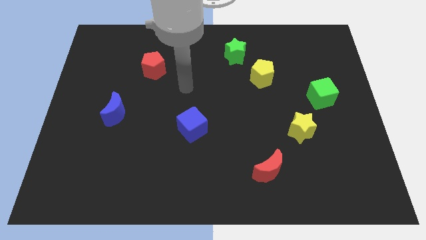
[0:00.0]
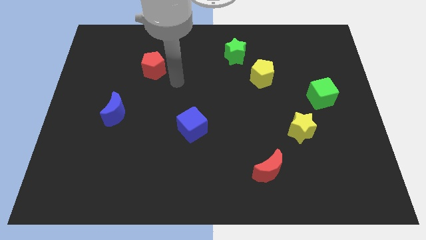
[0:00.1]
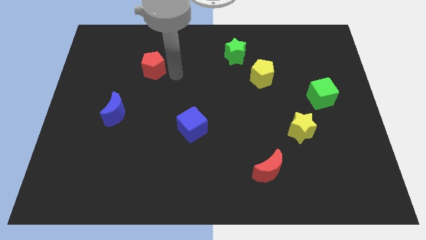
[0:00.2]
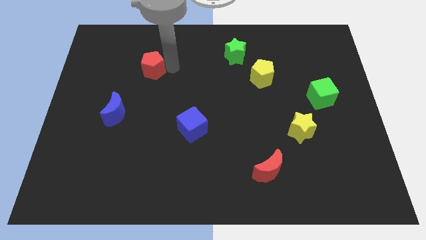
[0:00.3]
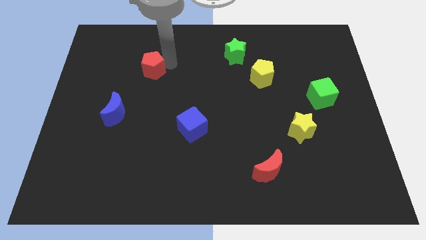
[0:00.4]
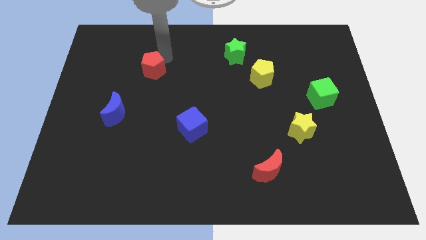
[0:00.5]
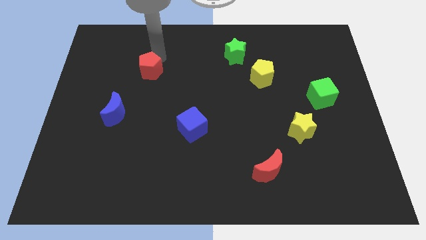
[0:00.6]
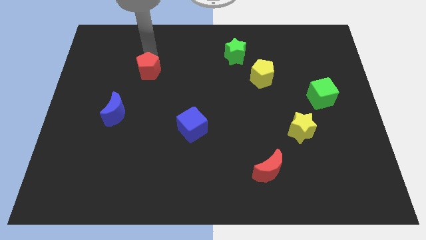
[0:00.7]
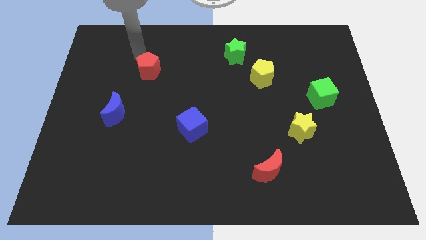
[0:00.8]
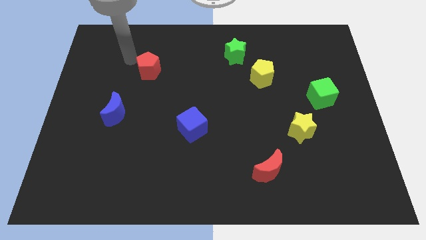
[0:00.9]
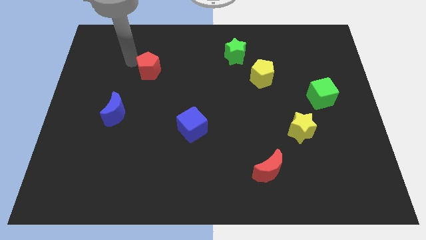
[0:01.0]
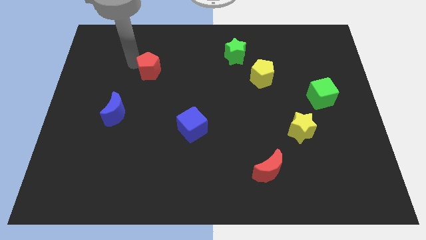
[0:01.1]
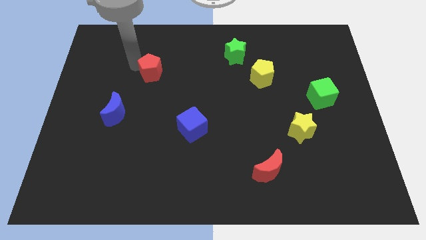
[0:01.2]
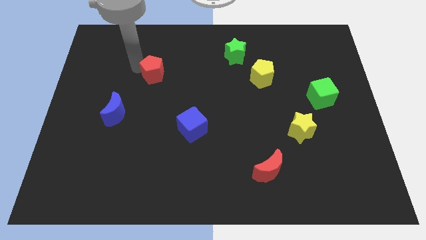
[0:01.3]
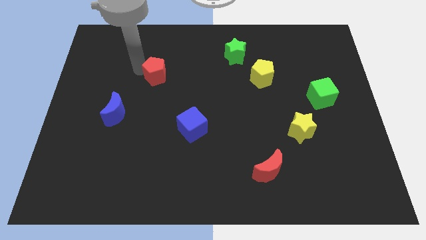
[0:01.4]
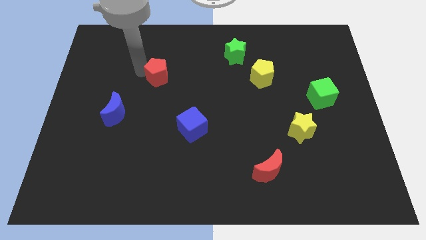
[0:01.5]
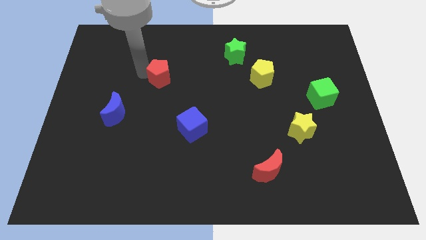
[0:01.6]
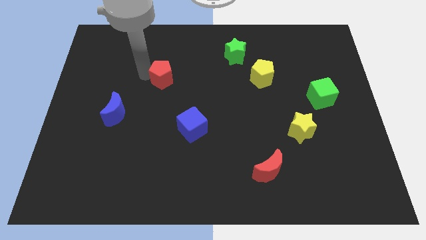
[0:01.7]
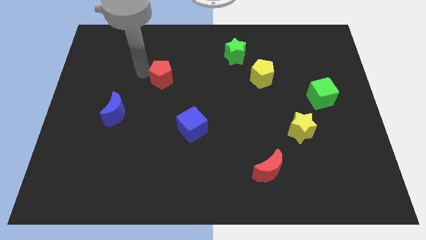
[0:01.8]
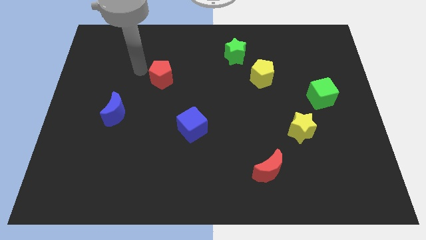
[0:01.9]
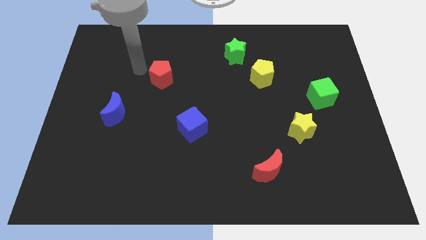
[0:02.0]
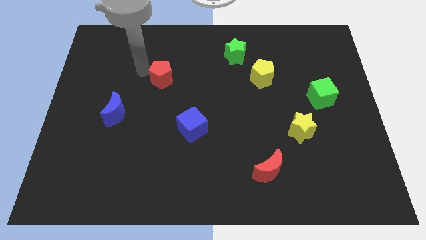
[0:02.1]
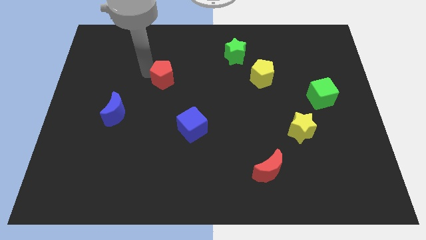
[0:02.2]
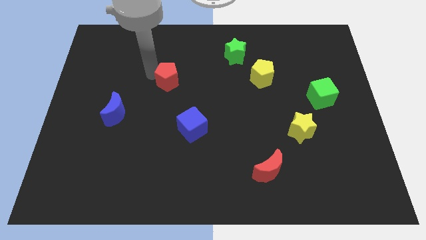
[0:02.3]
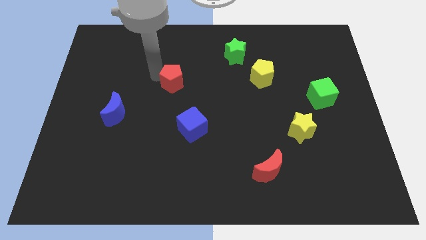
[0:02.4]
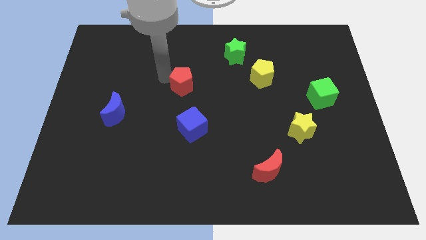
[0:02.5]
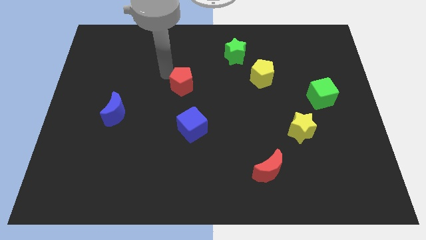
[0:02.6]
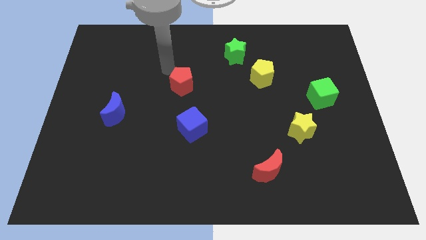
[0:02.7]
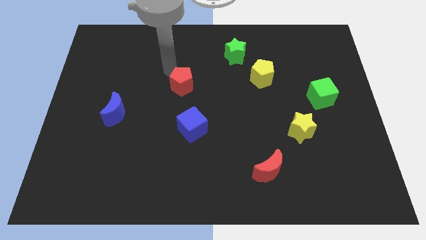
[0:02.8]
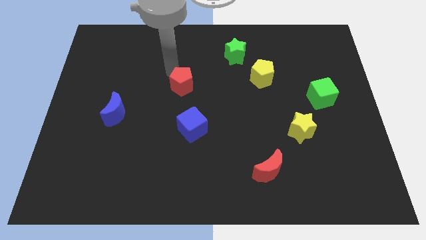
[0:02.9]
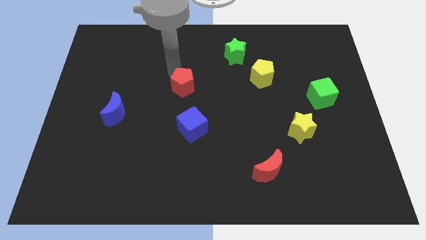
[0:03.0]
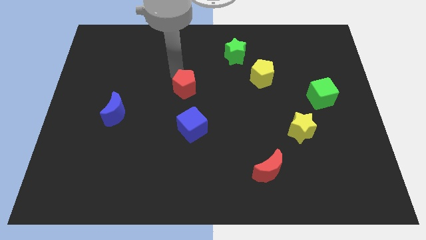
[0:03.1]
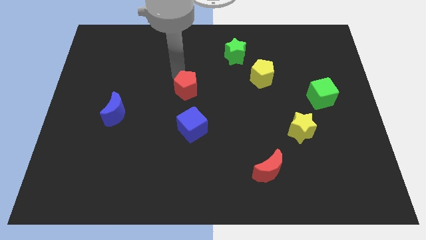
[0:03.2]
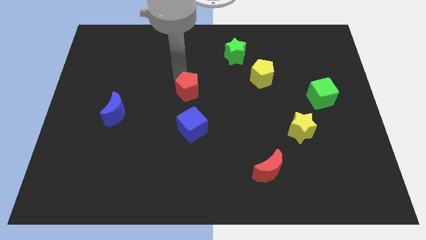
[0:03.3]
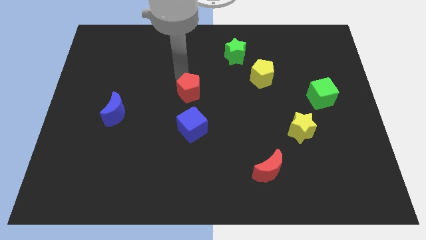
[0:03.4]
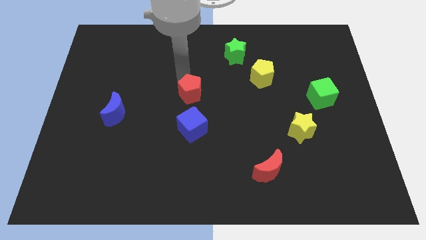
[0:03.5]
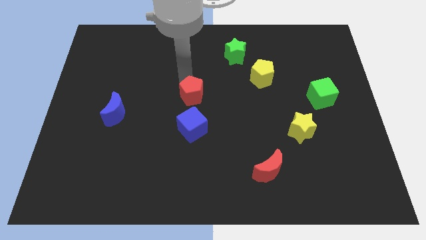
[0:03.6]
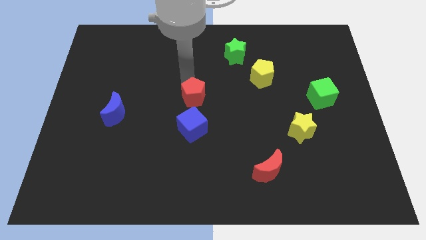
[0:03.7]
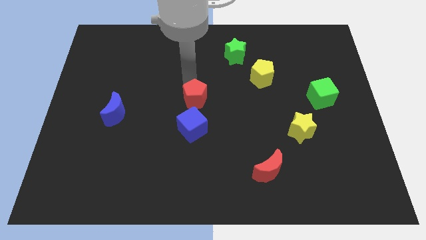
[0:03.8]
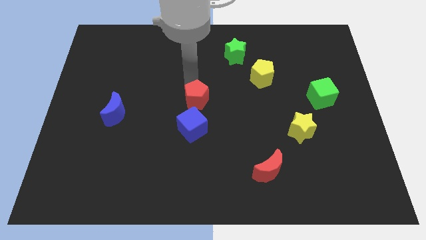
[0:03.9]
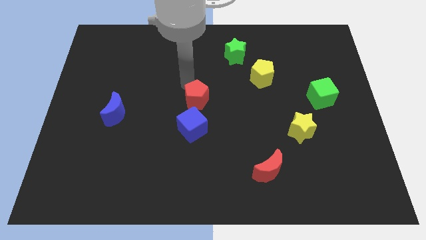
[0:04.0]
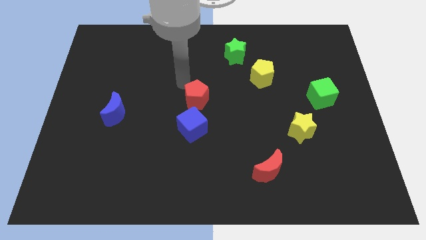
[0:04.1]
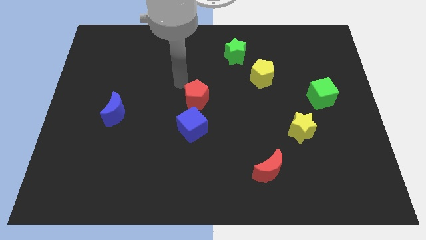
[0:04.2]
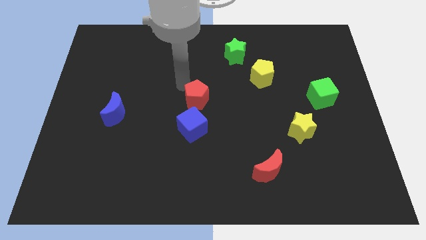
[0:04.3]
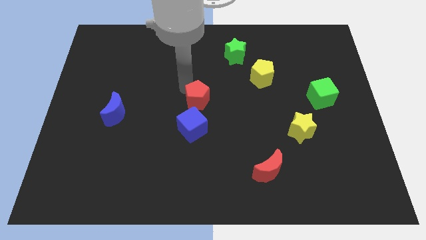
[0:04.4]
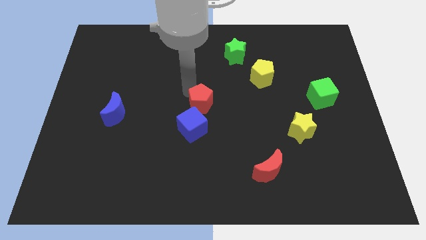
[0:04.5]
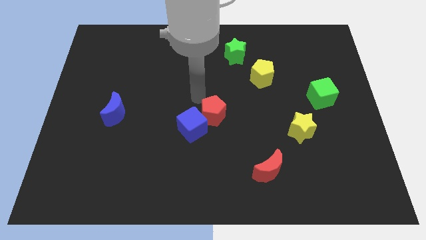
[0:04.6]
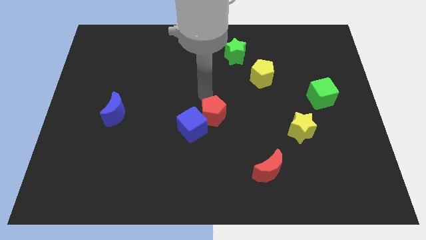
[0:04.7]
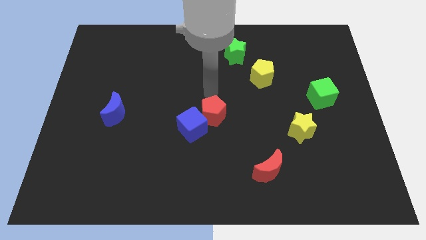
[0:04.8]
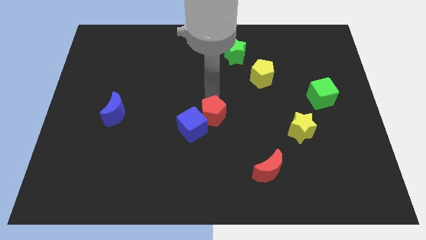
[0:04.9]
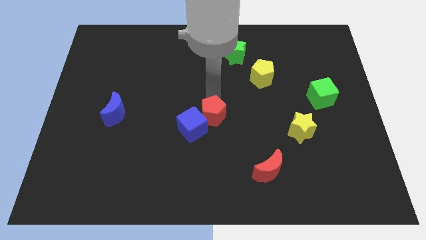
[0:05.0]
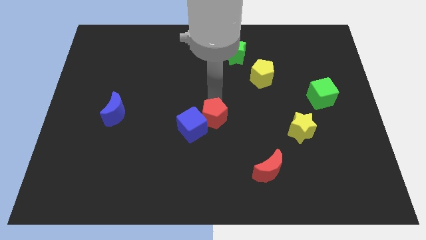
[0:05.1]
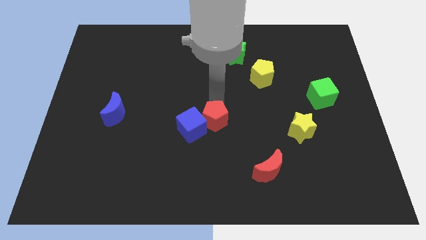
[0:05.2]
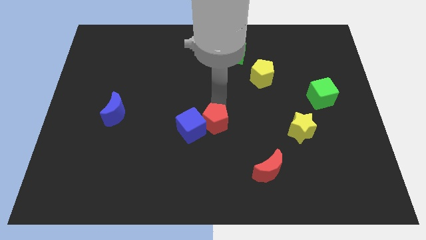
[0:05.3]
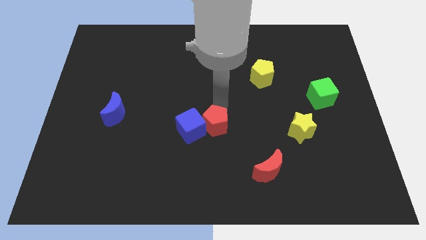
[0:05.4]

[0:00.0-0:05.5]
slide the red pentagon to the bottom right side of the blue cube

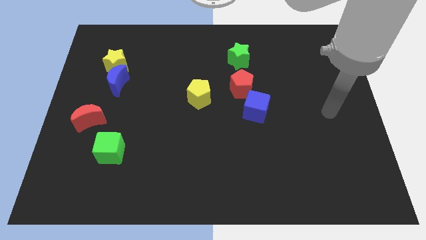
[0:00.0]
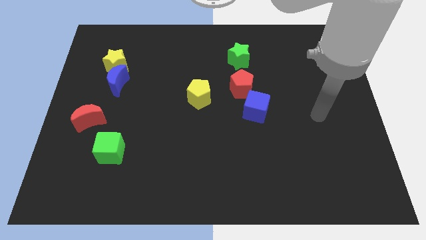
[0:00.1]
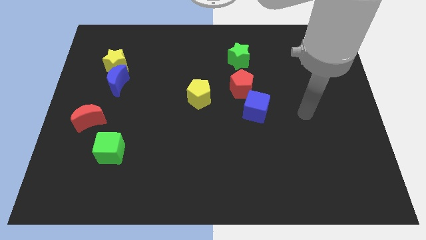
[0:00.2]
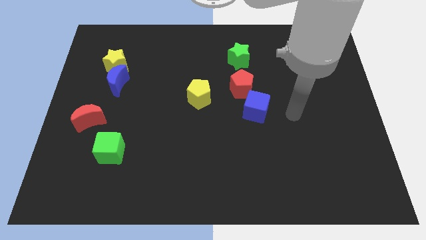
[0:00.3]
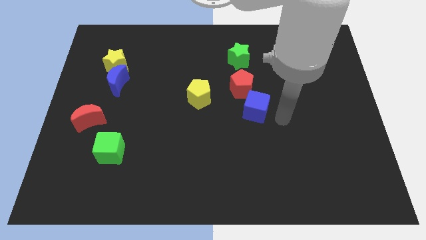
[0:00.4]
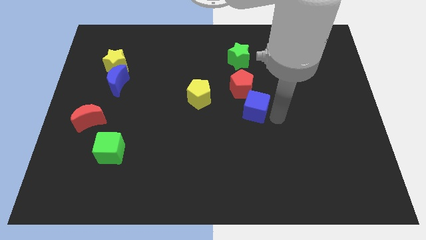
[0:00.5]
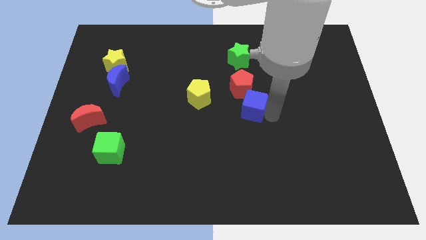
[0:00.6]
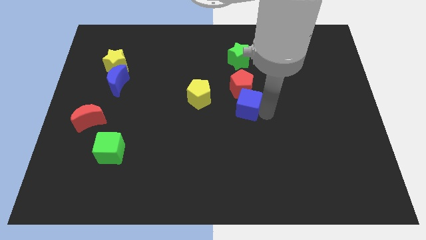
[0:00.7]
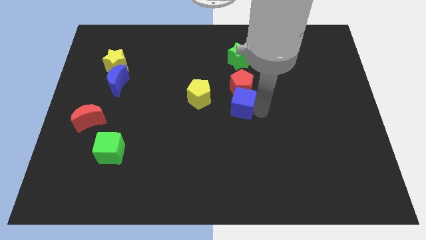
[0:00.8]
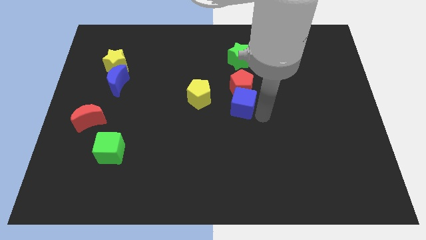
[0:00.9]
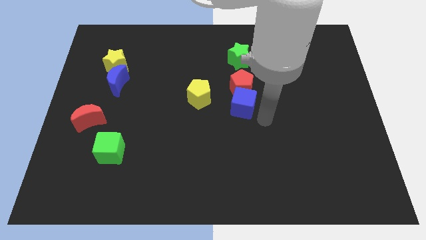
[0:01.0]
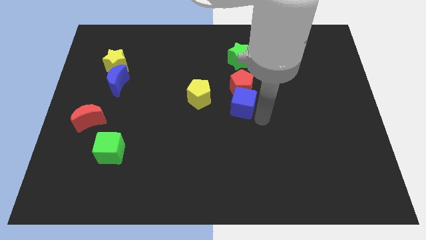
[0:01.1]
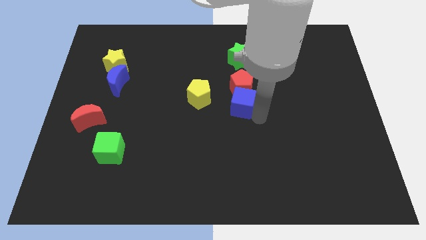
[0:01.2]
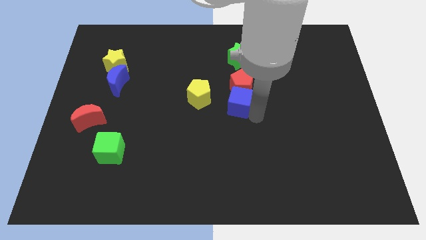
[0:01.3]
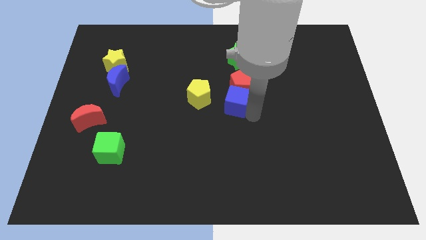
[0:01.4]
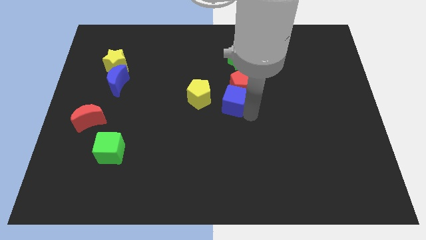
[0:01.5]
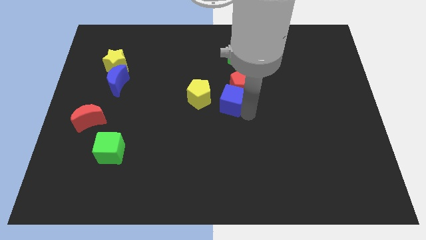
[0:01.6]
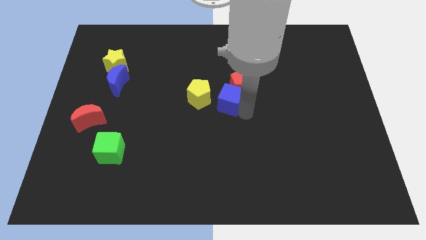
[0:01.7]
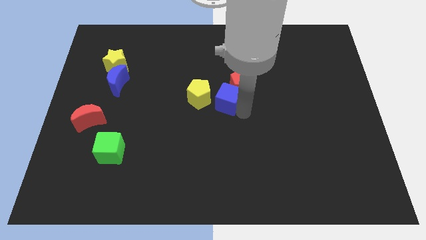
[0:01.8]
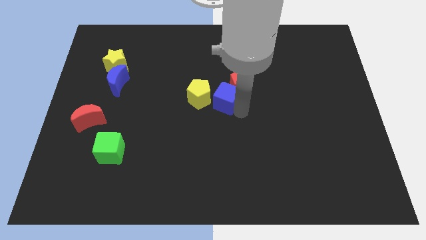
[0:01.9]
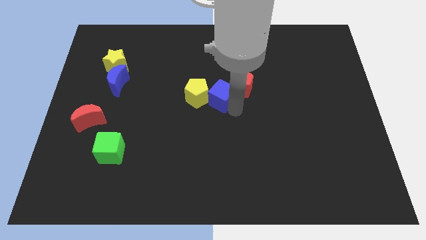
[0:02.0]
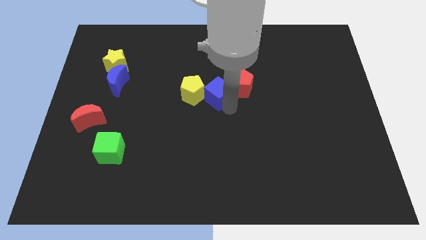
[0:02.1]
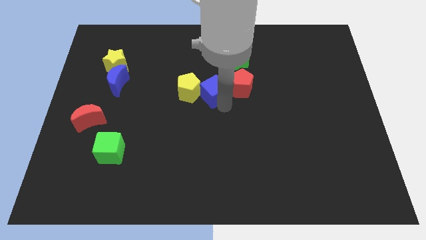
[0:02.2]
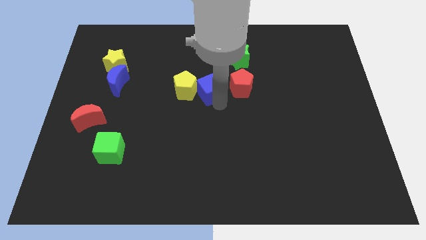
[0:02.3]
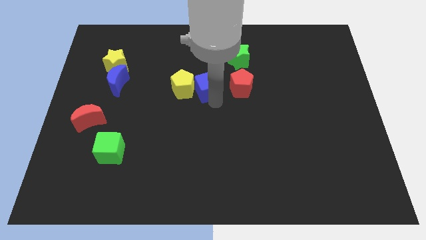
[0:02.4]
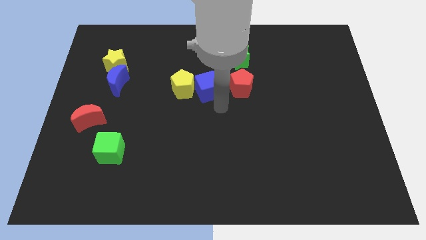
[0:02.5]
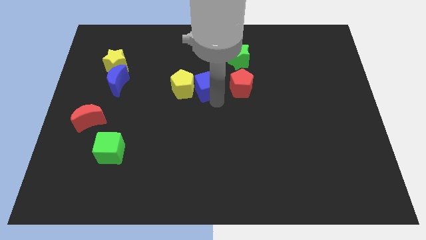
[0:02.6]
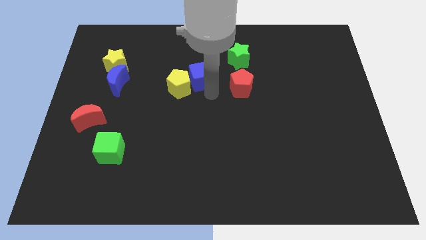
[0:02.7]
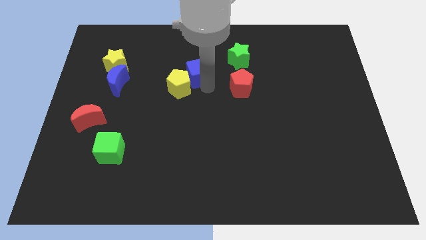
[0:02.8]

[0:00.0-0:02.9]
slide the blue cube above the yellow pentagon
